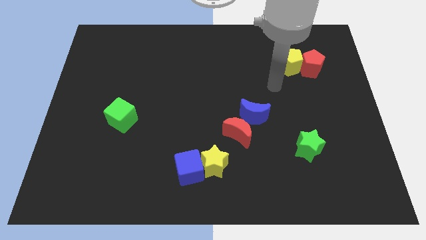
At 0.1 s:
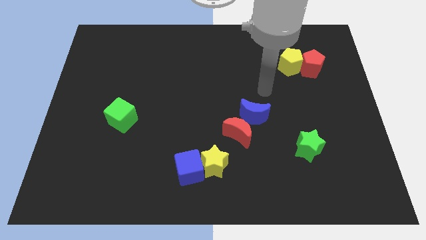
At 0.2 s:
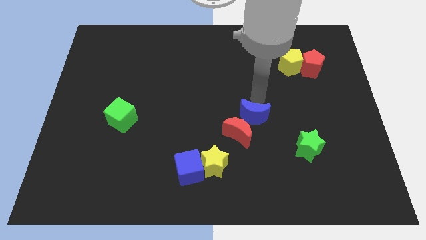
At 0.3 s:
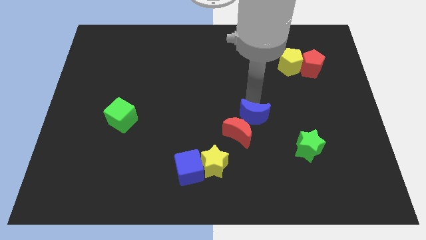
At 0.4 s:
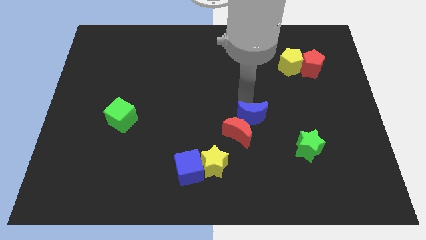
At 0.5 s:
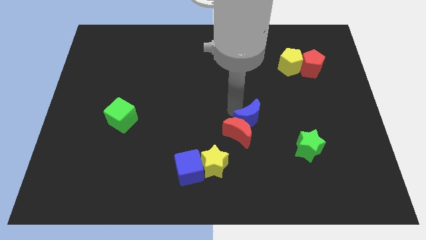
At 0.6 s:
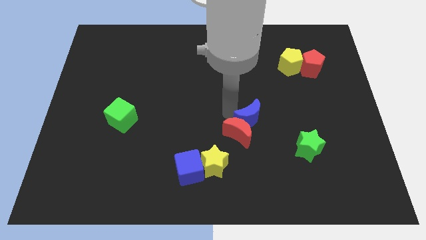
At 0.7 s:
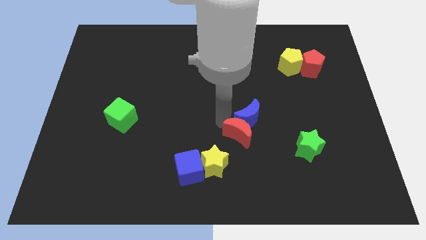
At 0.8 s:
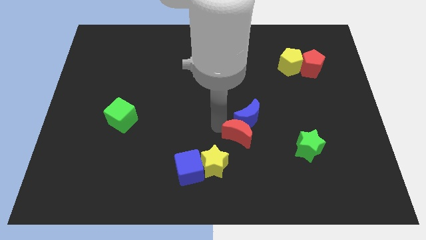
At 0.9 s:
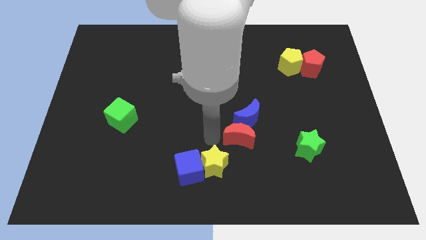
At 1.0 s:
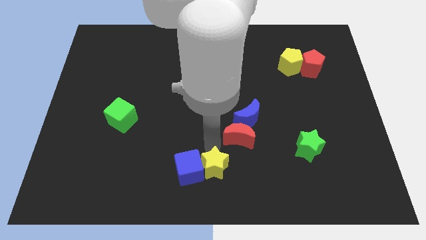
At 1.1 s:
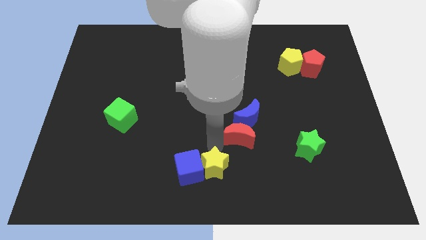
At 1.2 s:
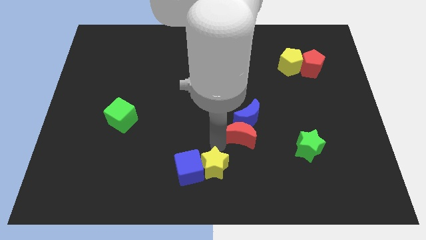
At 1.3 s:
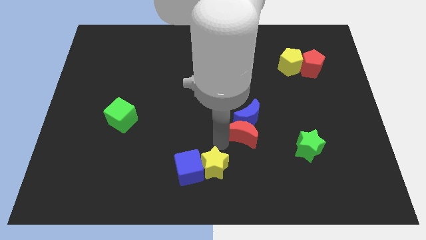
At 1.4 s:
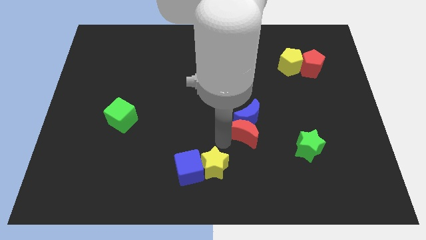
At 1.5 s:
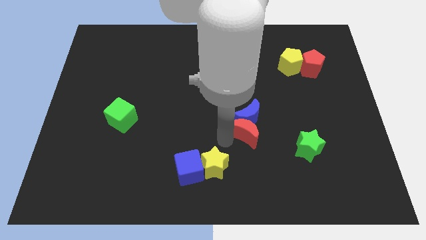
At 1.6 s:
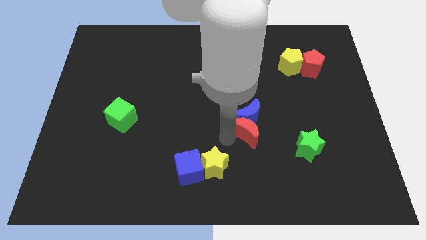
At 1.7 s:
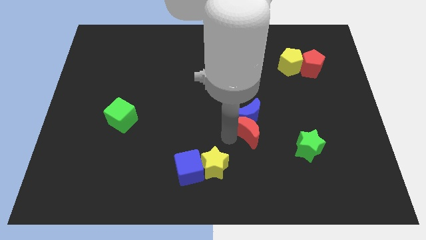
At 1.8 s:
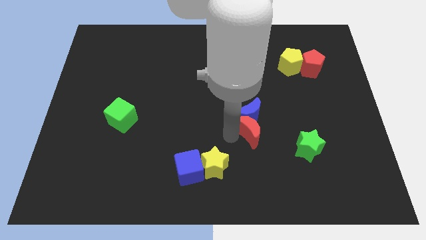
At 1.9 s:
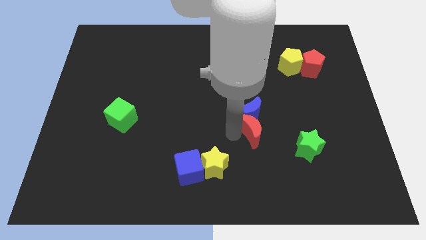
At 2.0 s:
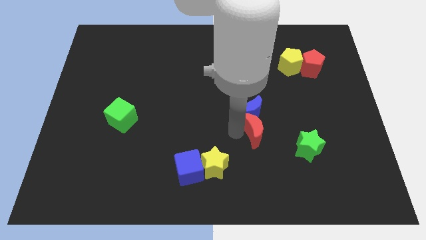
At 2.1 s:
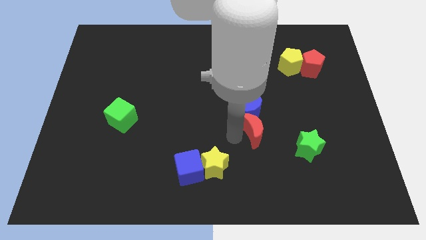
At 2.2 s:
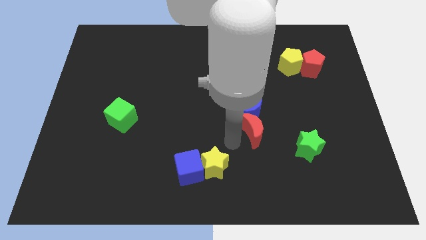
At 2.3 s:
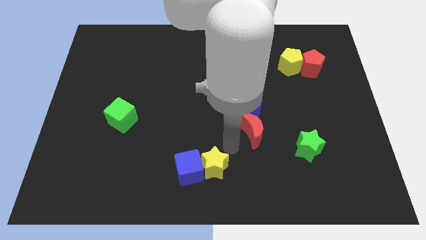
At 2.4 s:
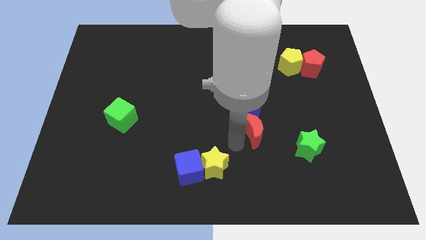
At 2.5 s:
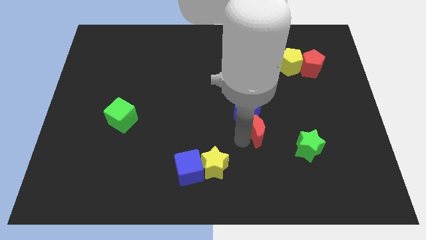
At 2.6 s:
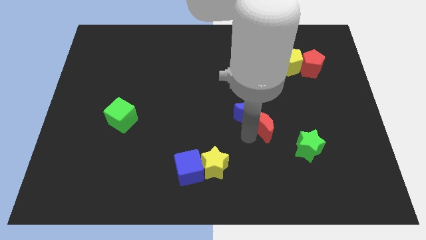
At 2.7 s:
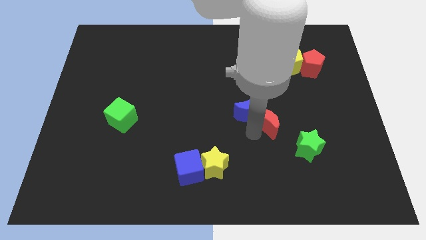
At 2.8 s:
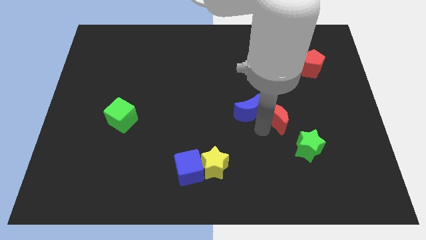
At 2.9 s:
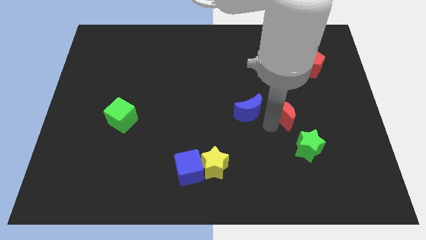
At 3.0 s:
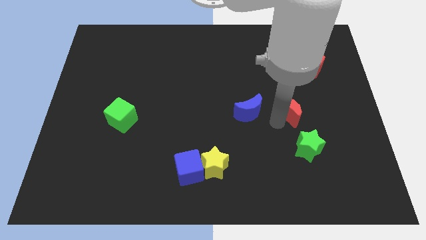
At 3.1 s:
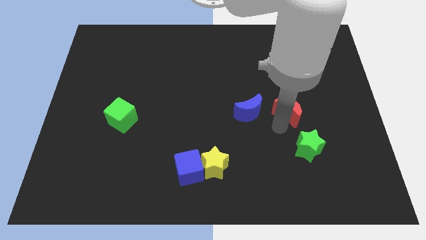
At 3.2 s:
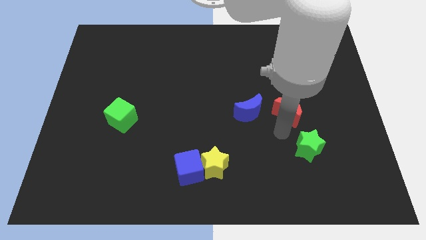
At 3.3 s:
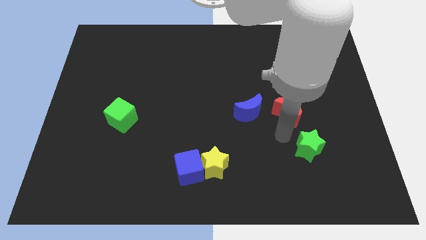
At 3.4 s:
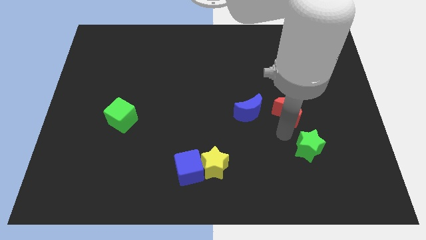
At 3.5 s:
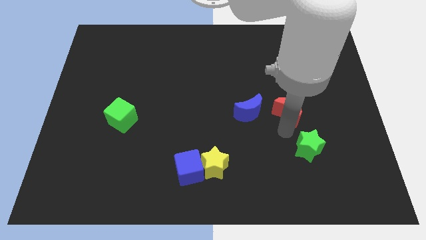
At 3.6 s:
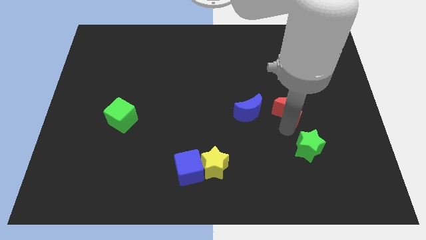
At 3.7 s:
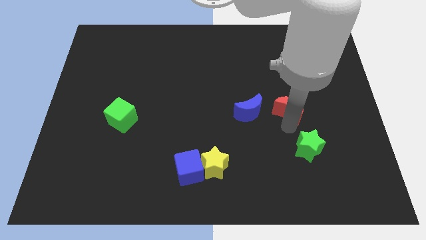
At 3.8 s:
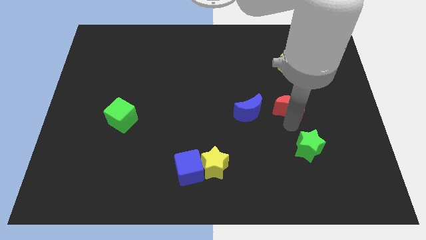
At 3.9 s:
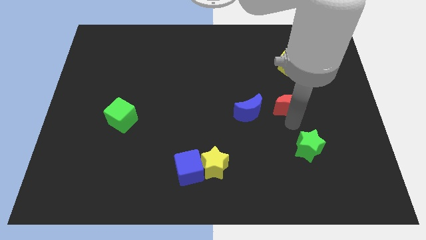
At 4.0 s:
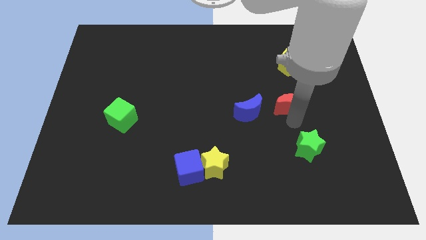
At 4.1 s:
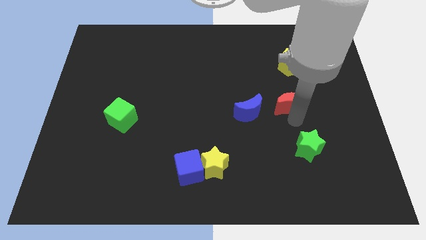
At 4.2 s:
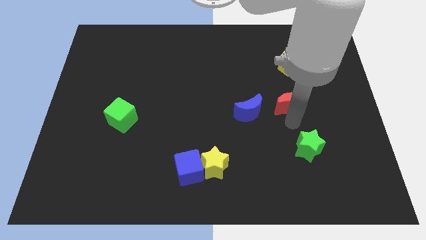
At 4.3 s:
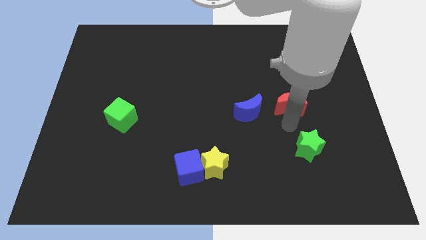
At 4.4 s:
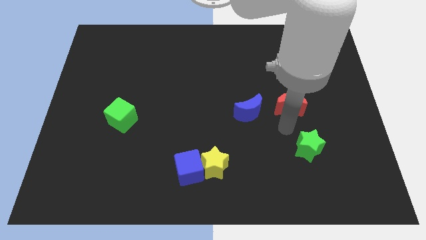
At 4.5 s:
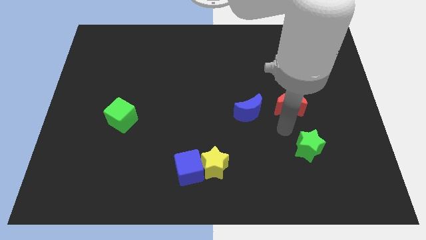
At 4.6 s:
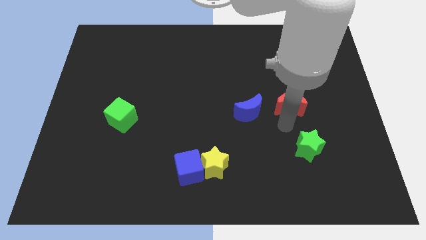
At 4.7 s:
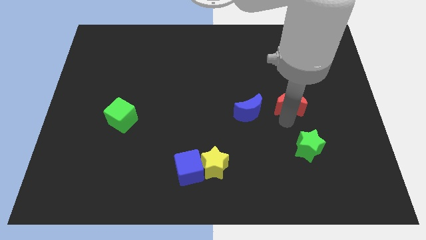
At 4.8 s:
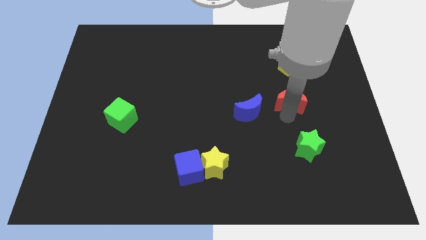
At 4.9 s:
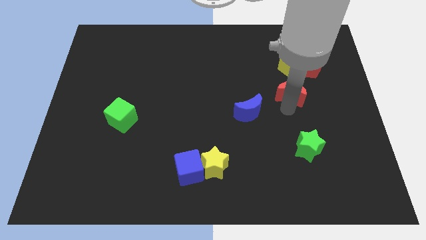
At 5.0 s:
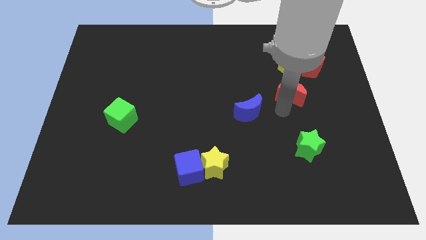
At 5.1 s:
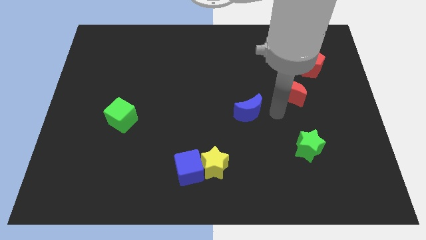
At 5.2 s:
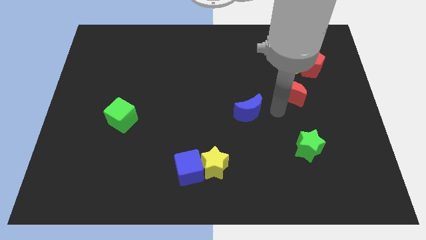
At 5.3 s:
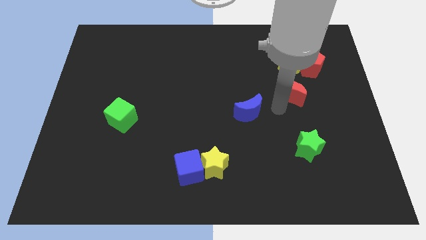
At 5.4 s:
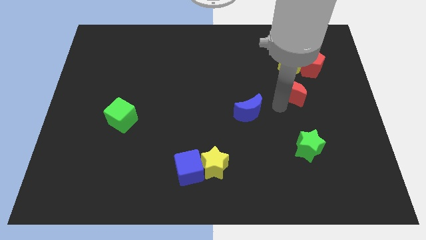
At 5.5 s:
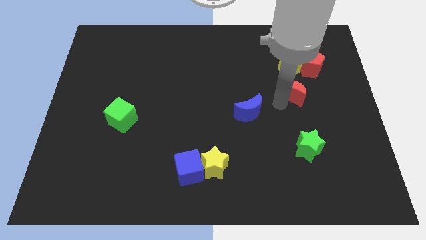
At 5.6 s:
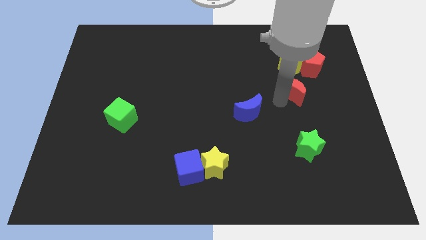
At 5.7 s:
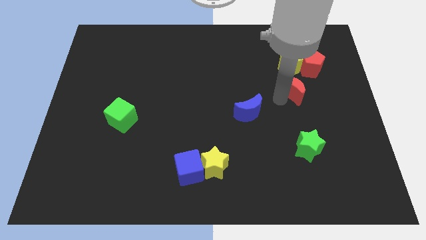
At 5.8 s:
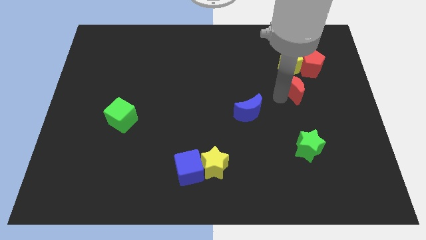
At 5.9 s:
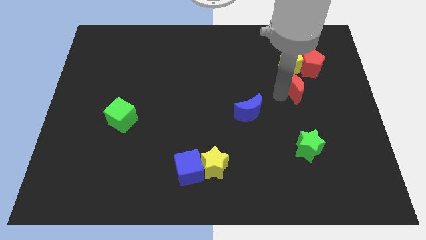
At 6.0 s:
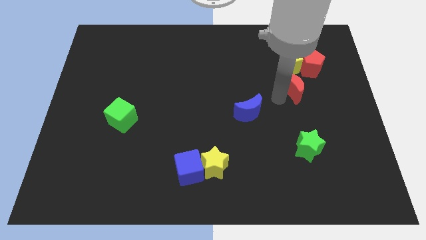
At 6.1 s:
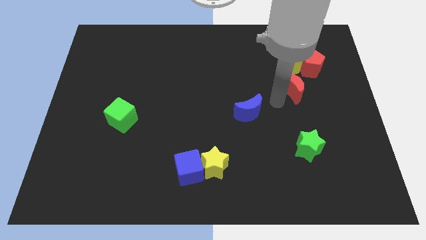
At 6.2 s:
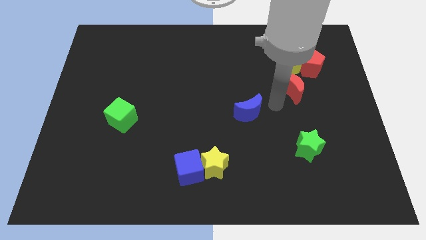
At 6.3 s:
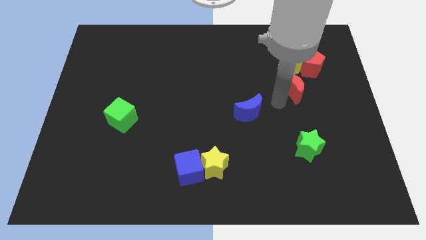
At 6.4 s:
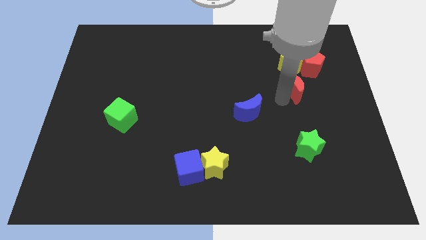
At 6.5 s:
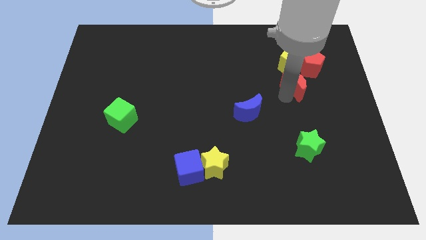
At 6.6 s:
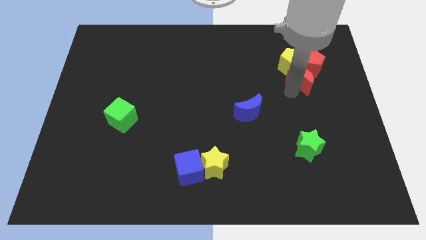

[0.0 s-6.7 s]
move the red moon to the red pentagon

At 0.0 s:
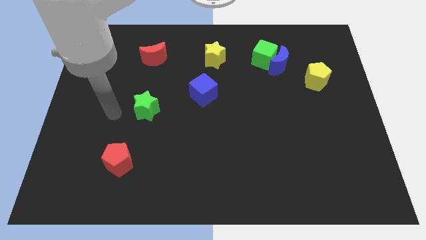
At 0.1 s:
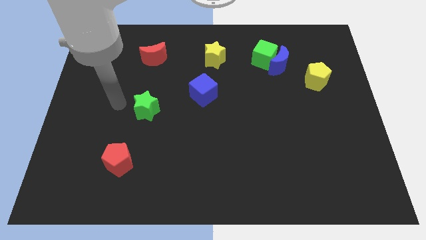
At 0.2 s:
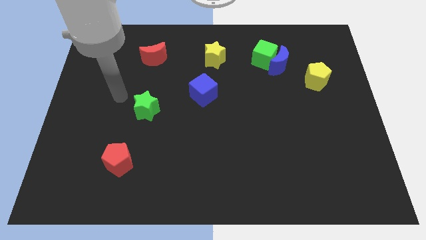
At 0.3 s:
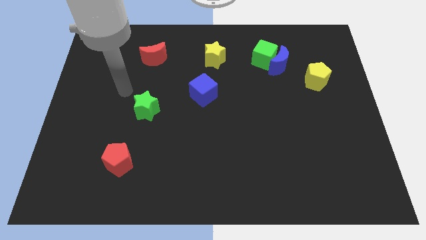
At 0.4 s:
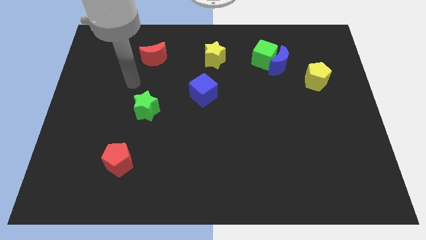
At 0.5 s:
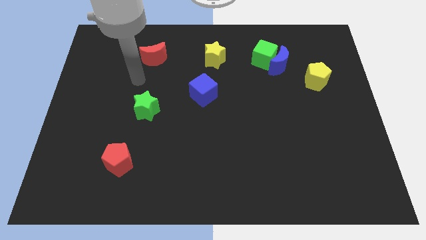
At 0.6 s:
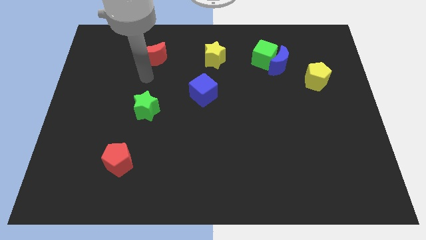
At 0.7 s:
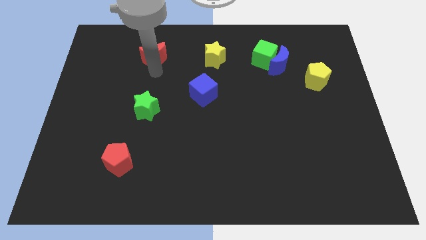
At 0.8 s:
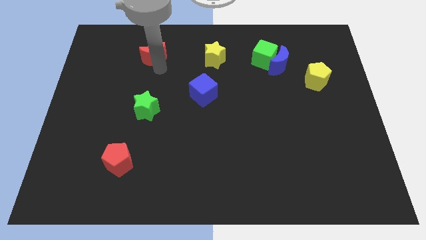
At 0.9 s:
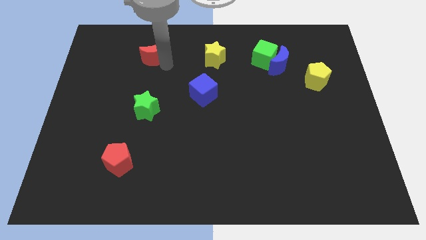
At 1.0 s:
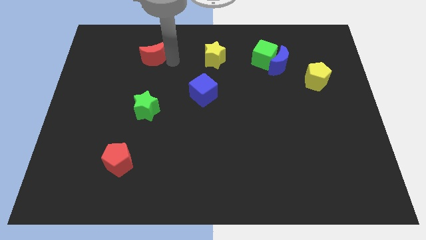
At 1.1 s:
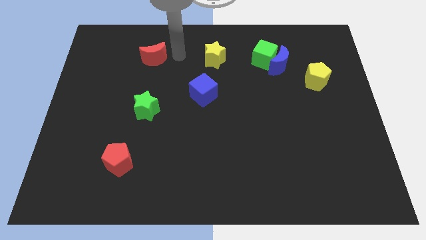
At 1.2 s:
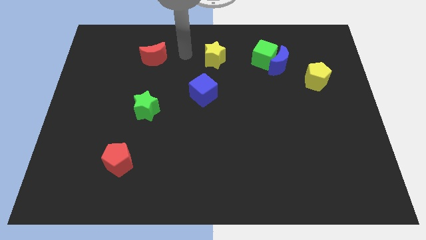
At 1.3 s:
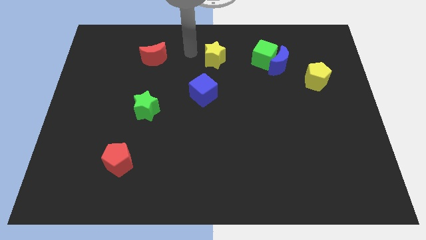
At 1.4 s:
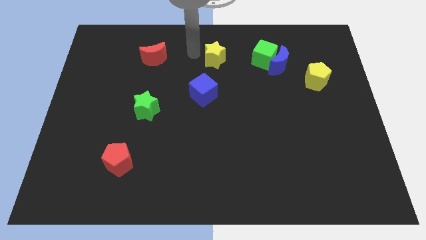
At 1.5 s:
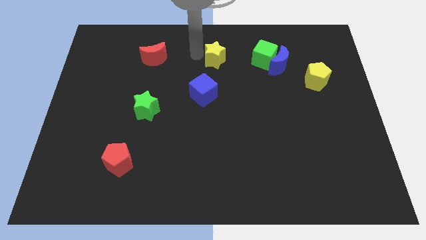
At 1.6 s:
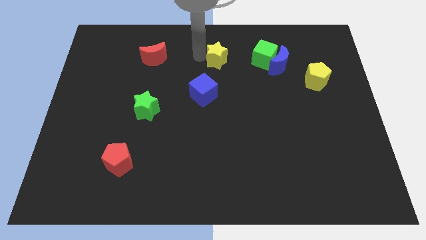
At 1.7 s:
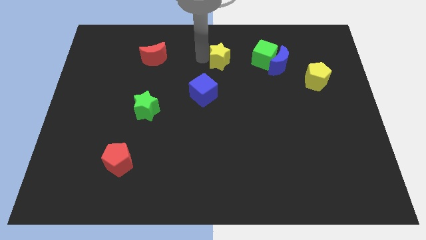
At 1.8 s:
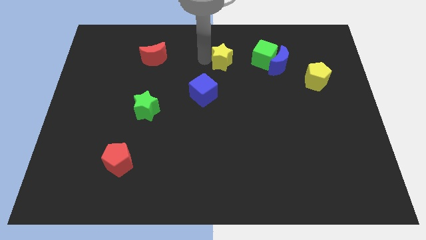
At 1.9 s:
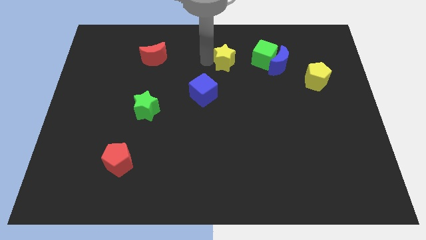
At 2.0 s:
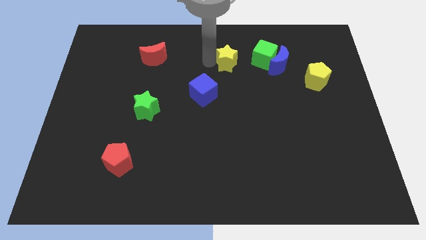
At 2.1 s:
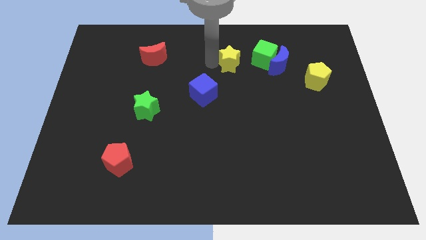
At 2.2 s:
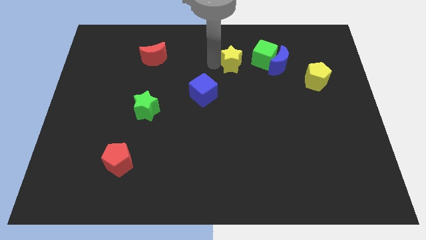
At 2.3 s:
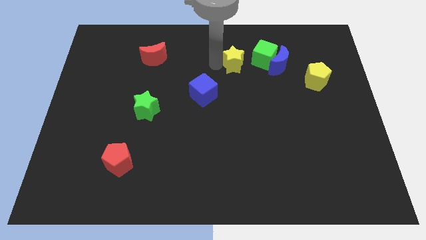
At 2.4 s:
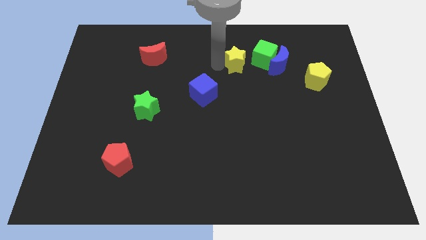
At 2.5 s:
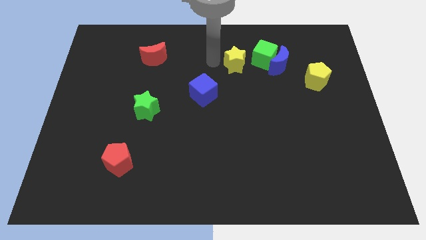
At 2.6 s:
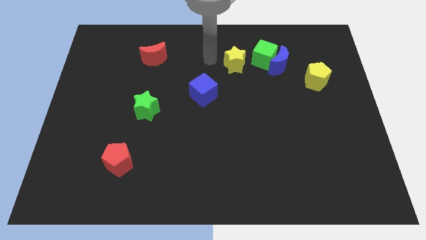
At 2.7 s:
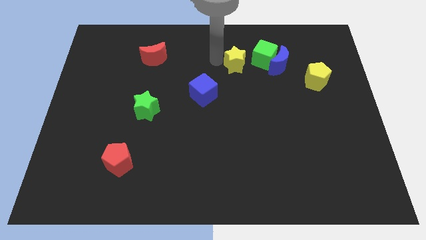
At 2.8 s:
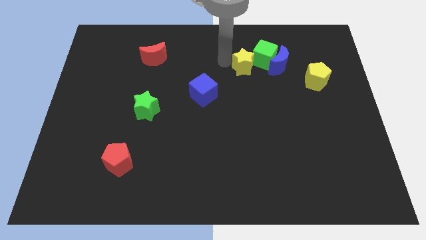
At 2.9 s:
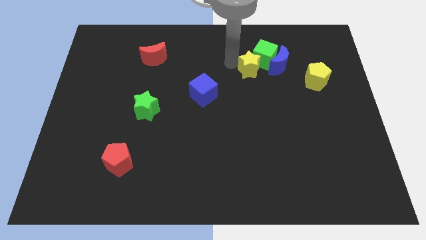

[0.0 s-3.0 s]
slide the yellow star close to the green cube
